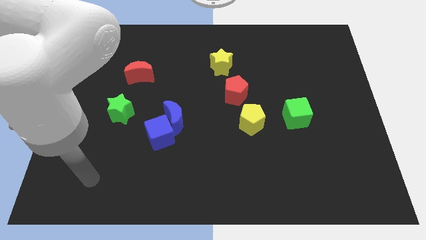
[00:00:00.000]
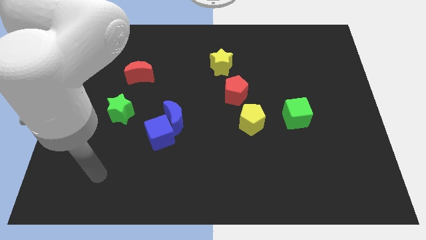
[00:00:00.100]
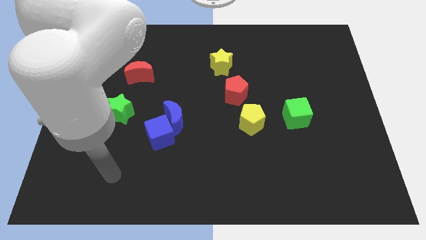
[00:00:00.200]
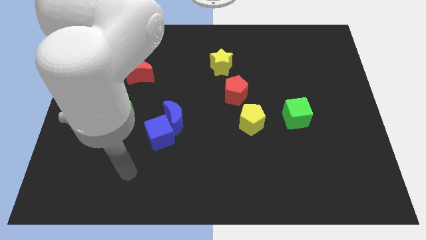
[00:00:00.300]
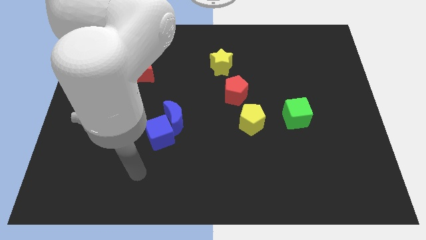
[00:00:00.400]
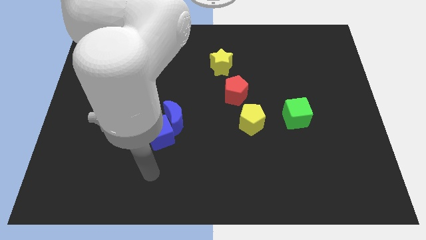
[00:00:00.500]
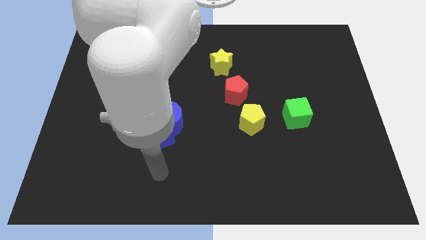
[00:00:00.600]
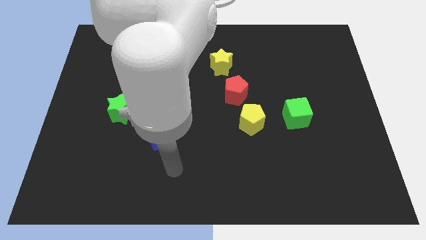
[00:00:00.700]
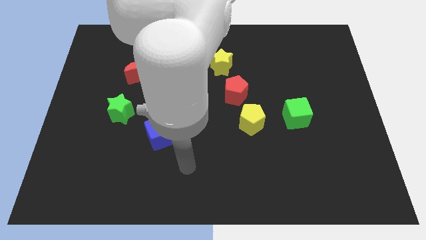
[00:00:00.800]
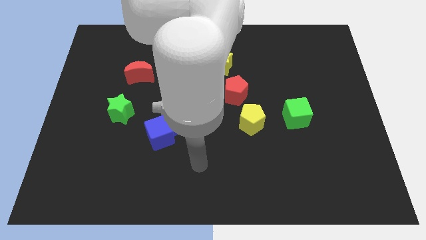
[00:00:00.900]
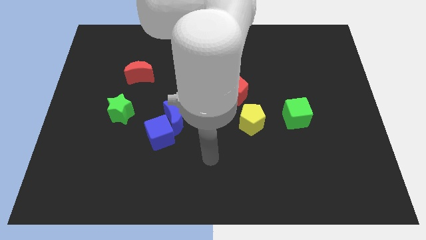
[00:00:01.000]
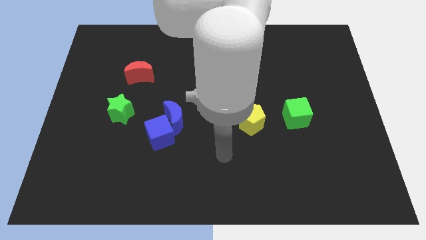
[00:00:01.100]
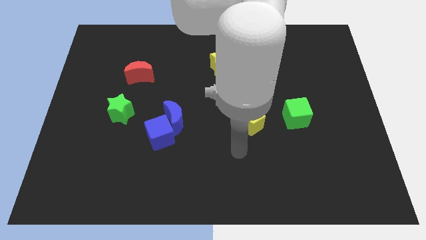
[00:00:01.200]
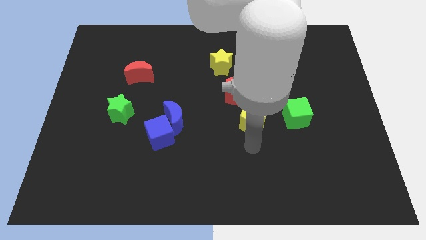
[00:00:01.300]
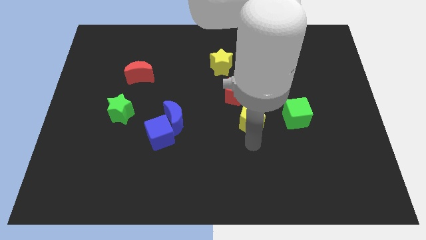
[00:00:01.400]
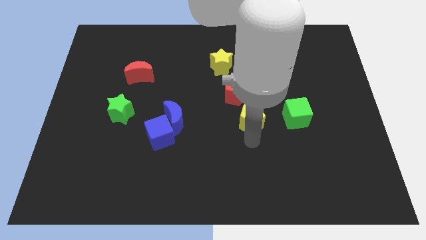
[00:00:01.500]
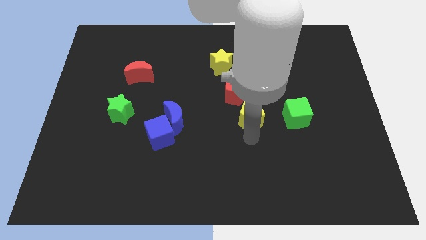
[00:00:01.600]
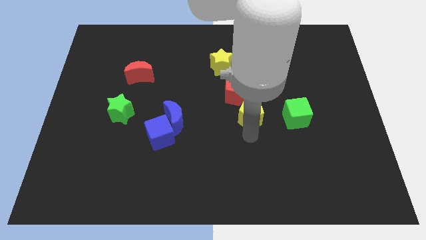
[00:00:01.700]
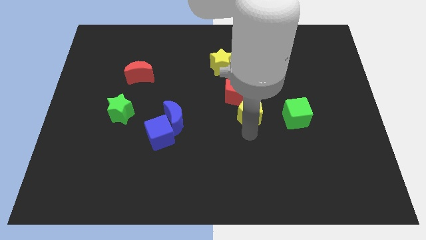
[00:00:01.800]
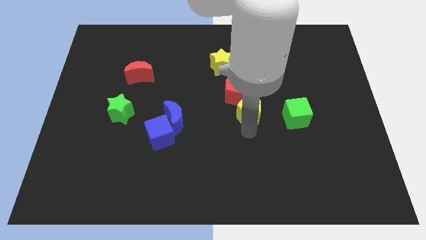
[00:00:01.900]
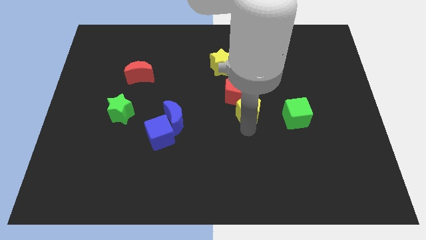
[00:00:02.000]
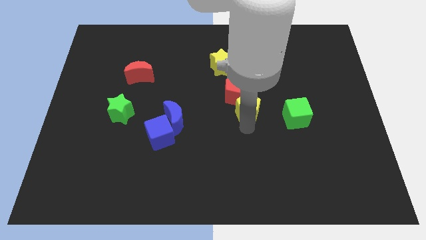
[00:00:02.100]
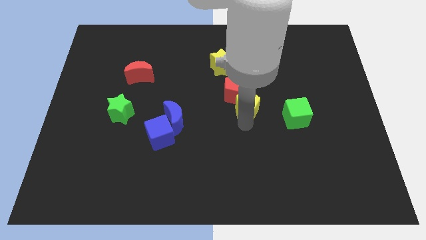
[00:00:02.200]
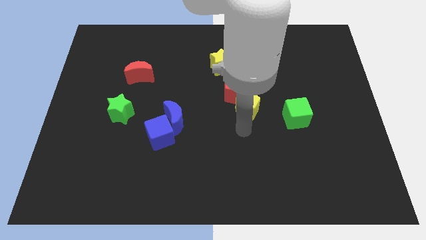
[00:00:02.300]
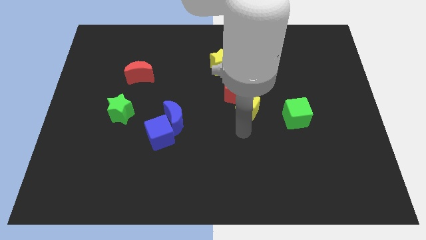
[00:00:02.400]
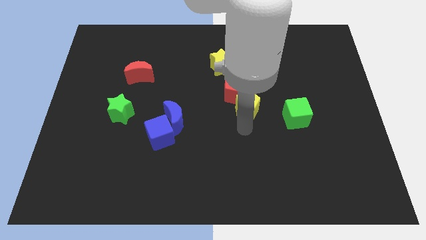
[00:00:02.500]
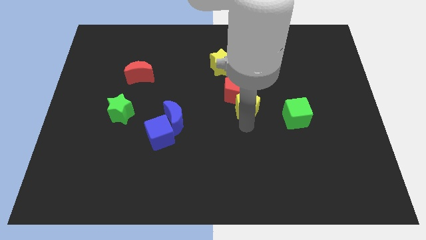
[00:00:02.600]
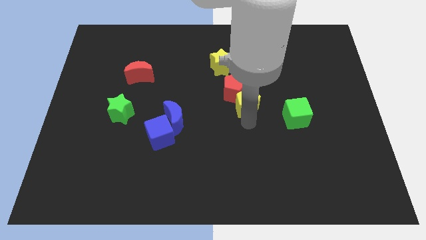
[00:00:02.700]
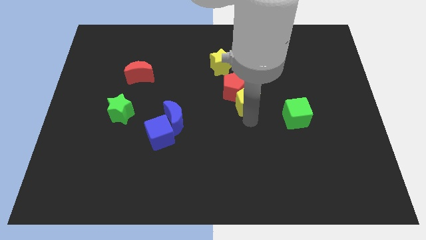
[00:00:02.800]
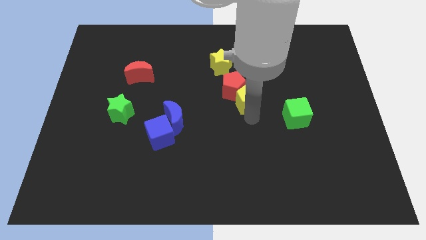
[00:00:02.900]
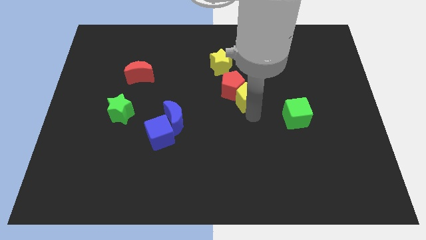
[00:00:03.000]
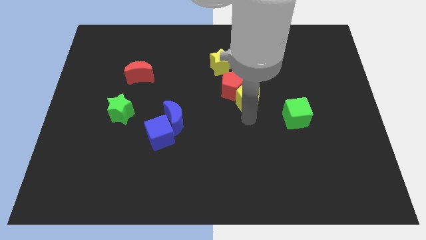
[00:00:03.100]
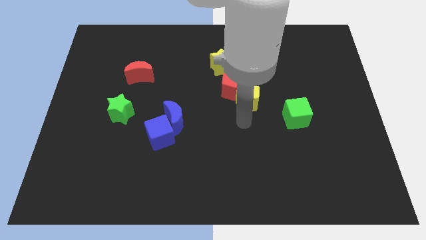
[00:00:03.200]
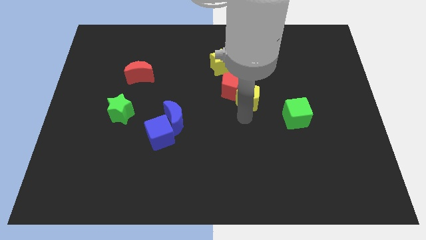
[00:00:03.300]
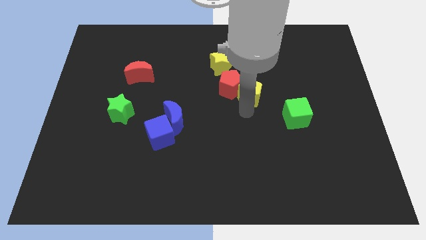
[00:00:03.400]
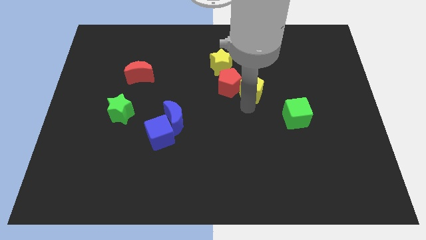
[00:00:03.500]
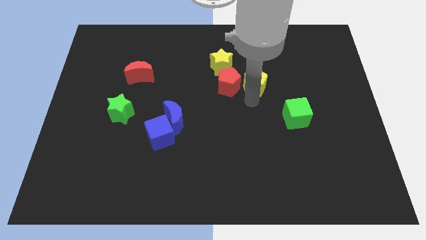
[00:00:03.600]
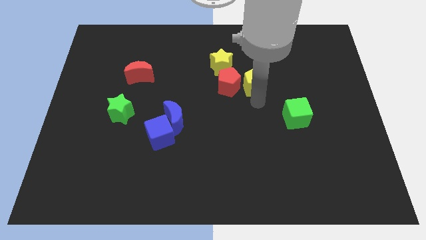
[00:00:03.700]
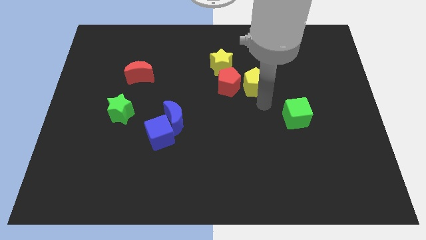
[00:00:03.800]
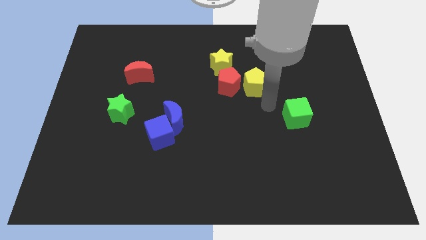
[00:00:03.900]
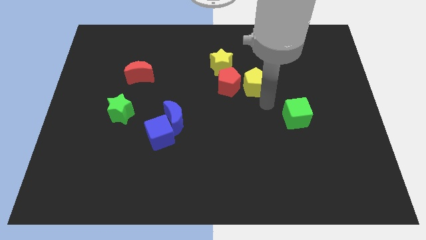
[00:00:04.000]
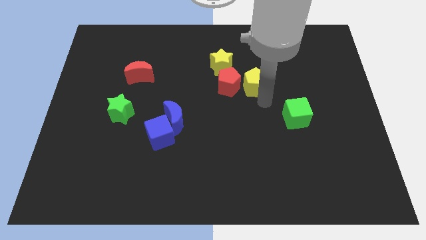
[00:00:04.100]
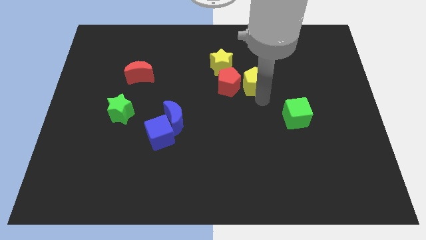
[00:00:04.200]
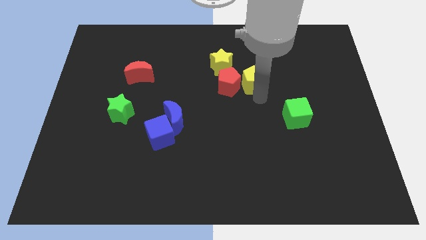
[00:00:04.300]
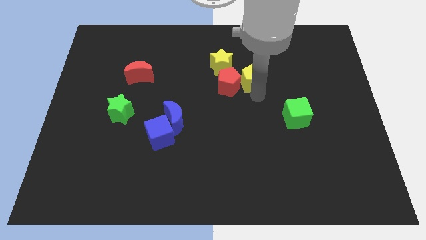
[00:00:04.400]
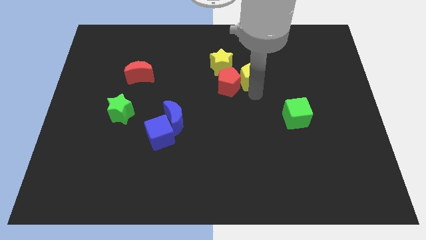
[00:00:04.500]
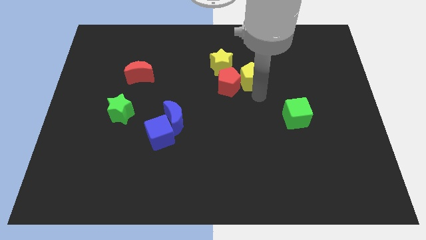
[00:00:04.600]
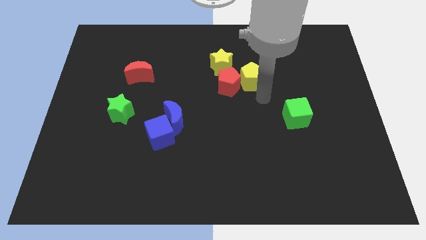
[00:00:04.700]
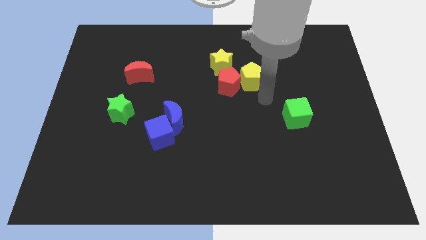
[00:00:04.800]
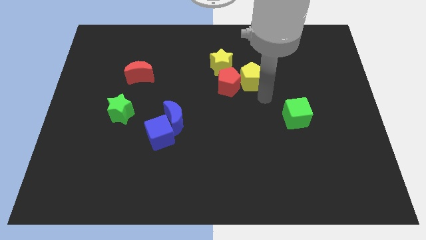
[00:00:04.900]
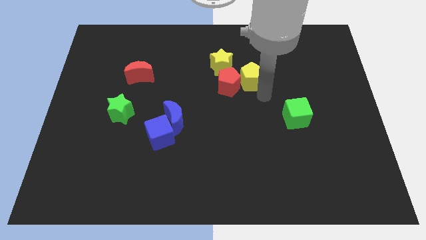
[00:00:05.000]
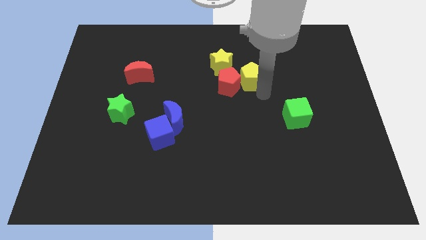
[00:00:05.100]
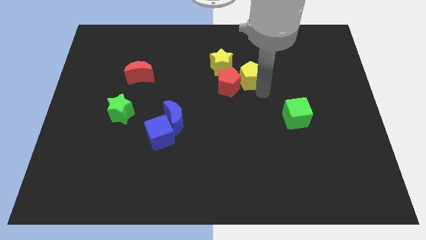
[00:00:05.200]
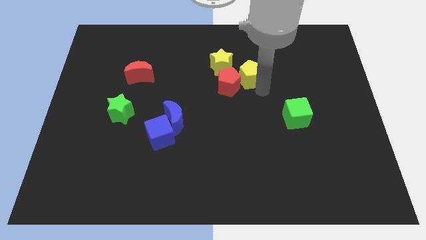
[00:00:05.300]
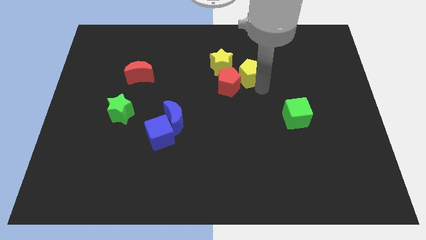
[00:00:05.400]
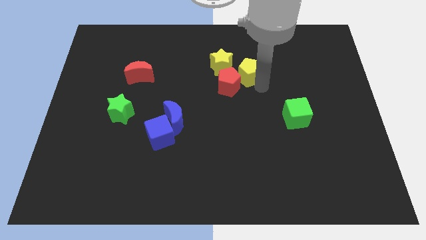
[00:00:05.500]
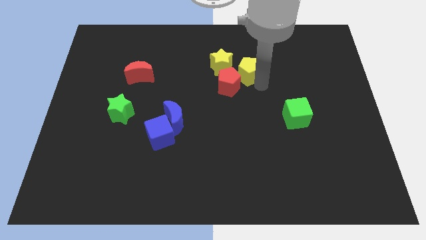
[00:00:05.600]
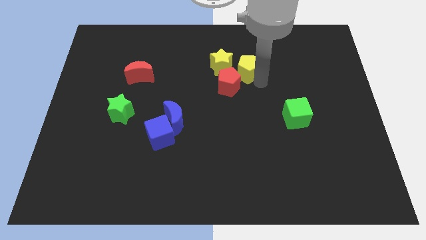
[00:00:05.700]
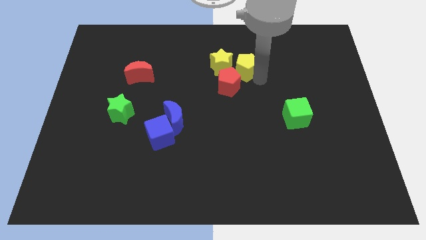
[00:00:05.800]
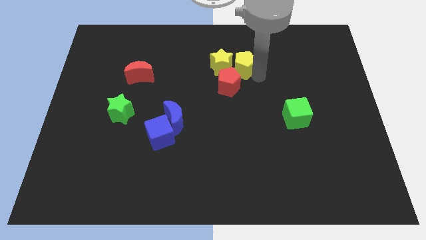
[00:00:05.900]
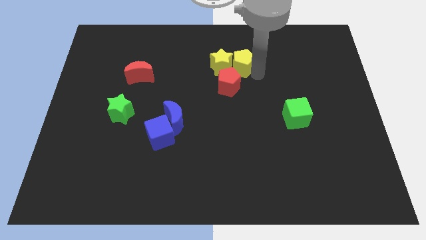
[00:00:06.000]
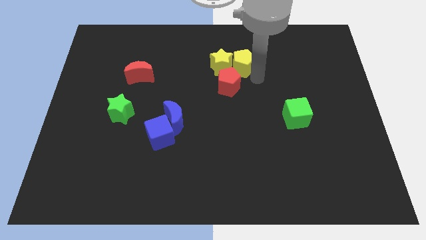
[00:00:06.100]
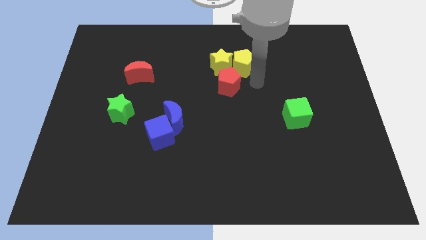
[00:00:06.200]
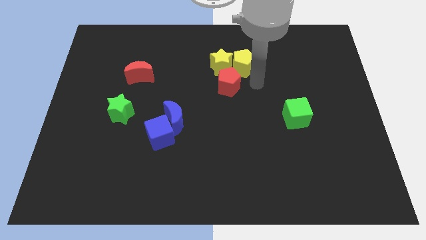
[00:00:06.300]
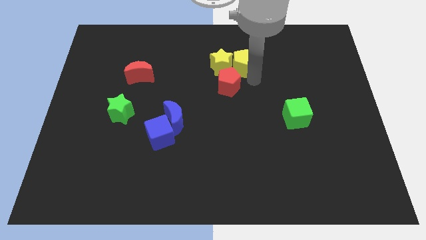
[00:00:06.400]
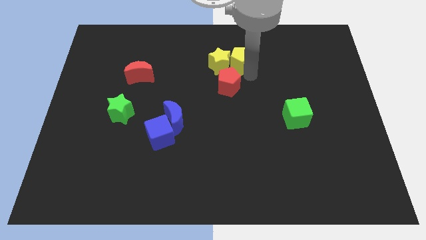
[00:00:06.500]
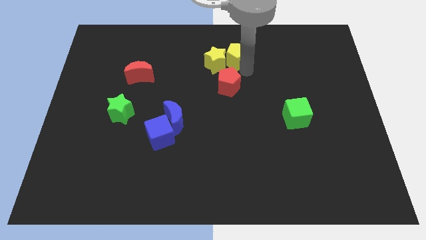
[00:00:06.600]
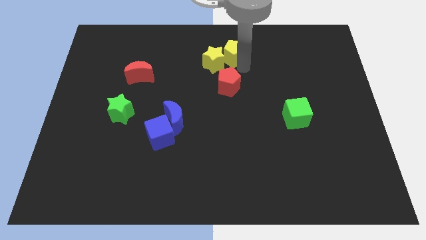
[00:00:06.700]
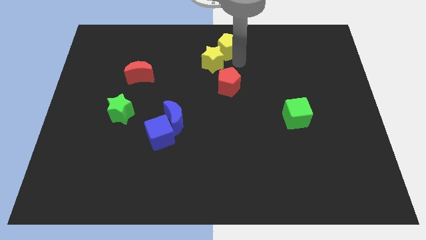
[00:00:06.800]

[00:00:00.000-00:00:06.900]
move the yellow pentagon to the top

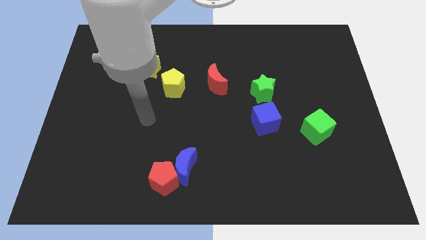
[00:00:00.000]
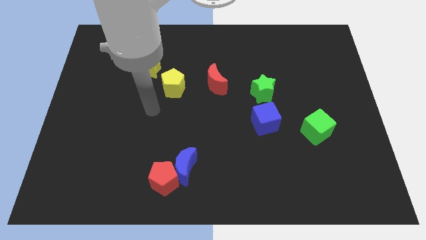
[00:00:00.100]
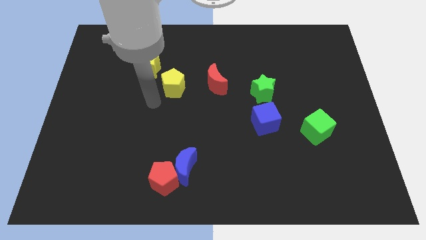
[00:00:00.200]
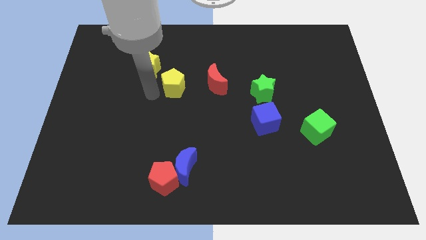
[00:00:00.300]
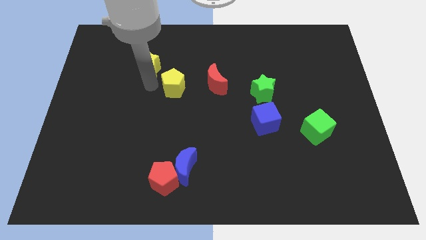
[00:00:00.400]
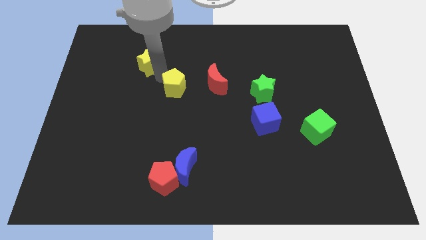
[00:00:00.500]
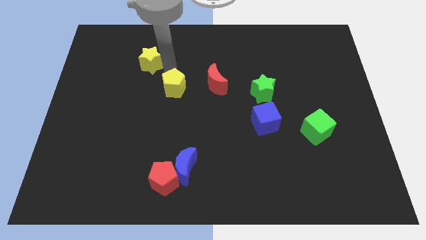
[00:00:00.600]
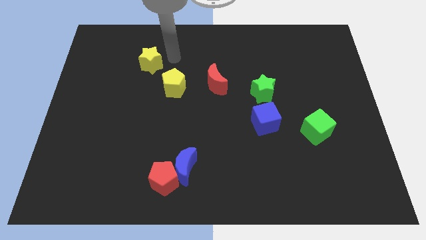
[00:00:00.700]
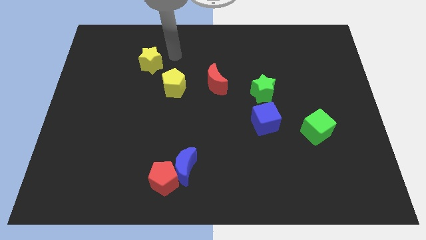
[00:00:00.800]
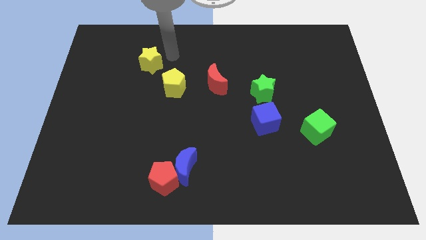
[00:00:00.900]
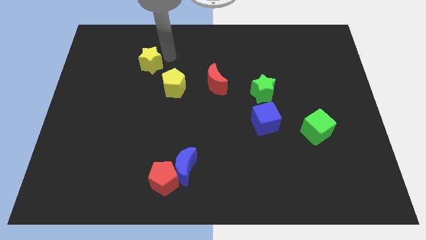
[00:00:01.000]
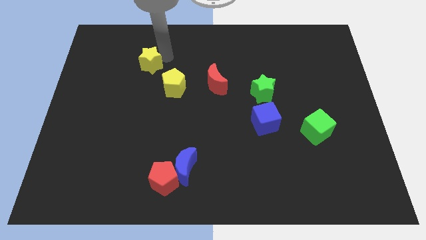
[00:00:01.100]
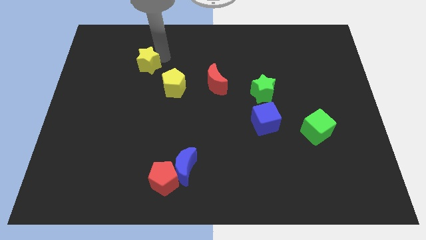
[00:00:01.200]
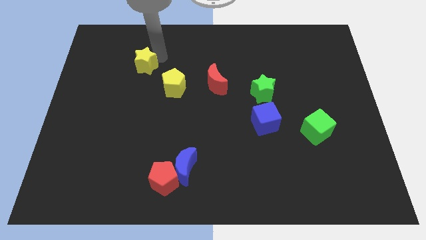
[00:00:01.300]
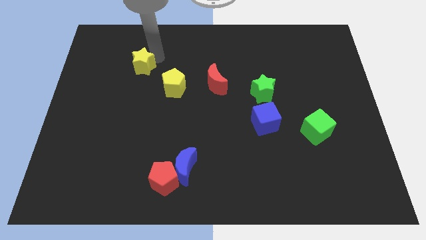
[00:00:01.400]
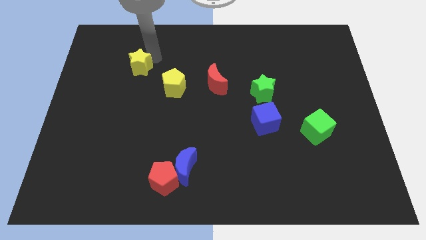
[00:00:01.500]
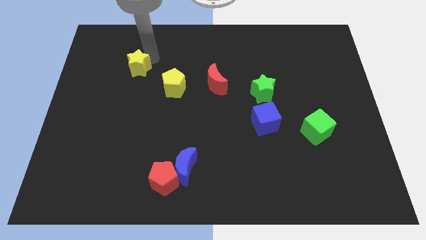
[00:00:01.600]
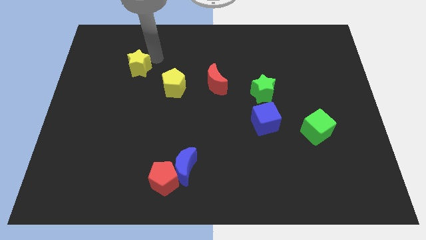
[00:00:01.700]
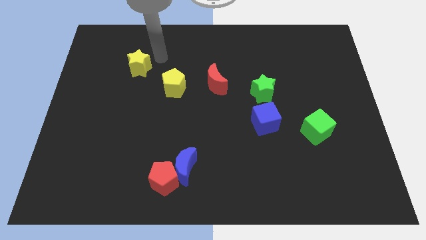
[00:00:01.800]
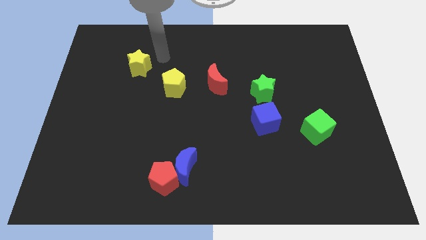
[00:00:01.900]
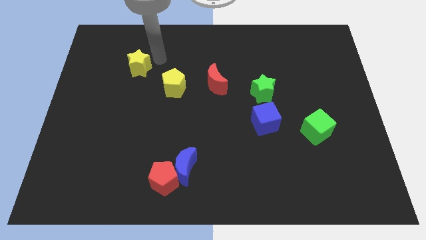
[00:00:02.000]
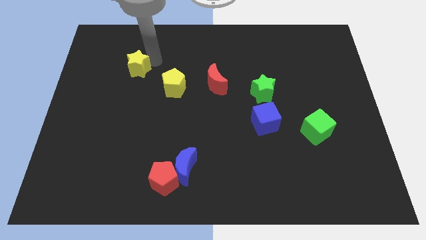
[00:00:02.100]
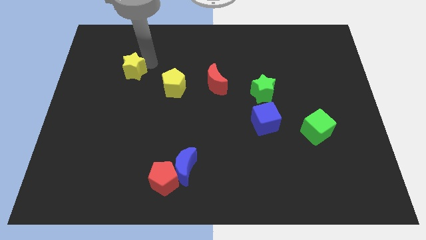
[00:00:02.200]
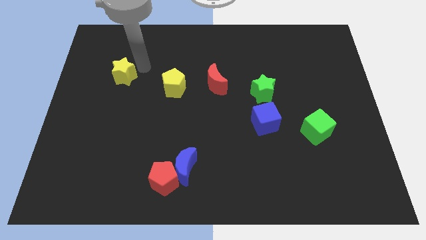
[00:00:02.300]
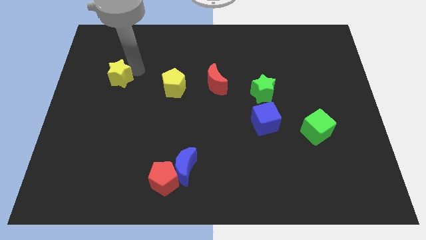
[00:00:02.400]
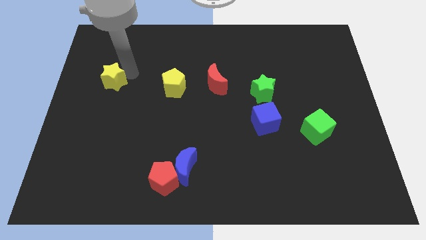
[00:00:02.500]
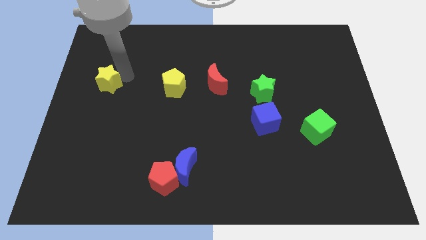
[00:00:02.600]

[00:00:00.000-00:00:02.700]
move the yellow star to the left side of the board
